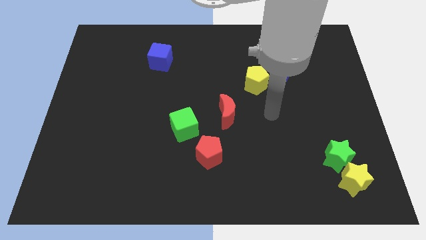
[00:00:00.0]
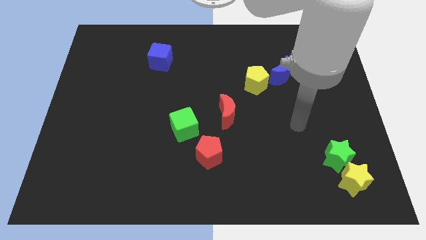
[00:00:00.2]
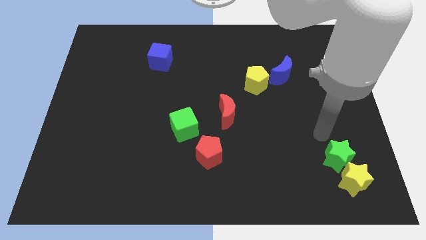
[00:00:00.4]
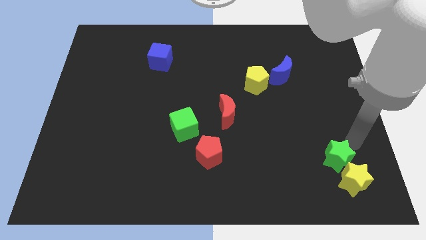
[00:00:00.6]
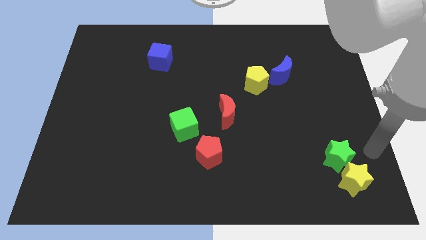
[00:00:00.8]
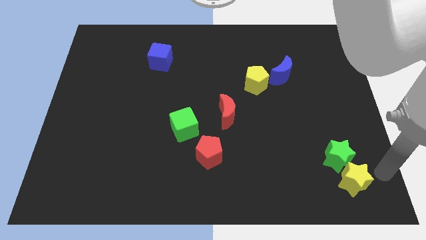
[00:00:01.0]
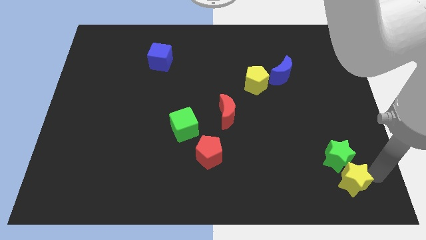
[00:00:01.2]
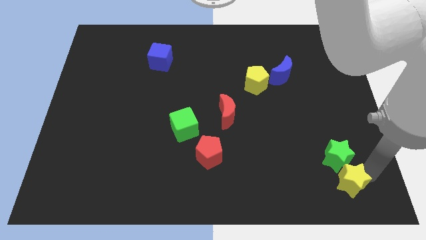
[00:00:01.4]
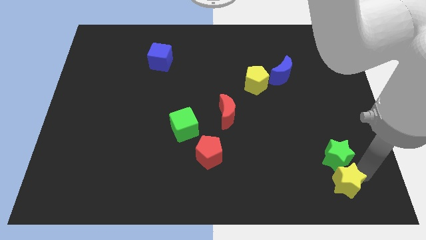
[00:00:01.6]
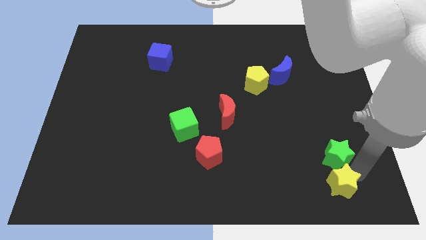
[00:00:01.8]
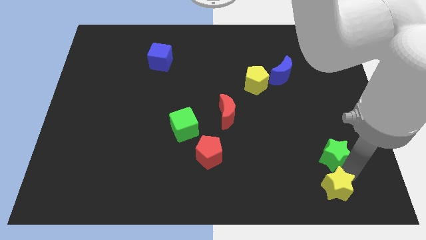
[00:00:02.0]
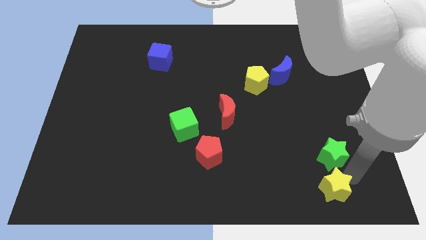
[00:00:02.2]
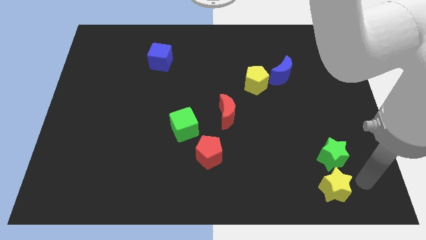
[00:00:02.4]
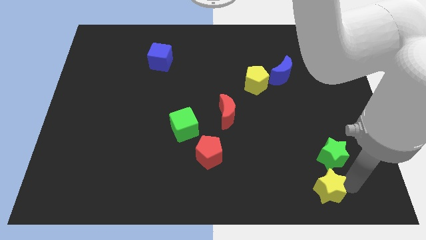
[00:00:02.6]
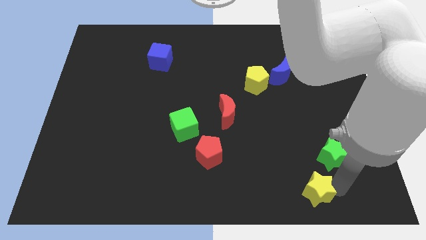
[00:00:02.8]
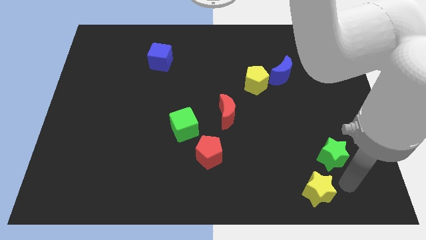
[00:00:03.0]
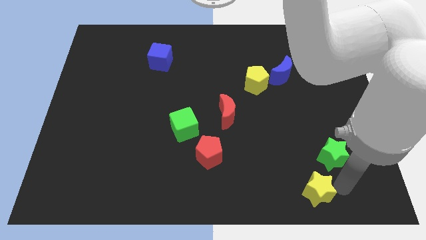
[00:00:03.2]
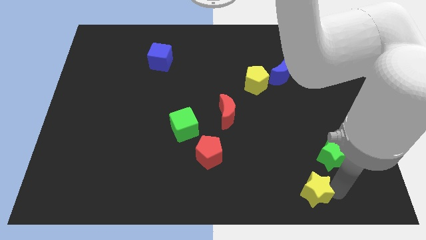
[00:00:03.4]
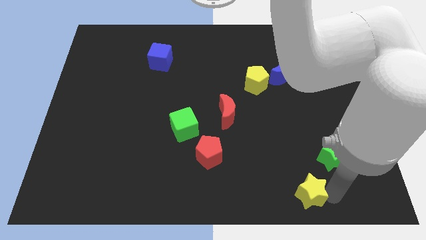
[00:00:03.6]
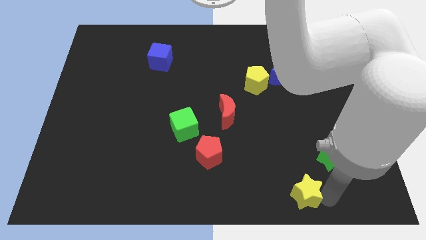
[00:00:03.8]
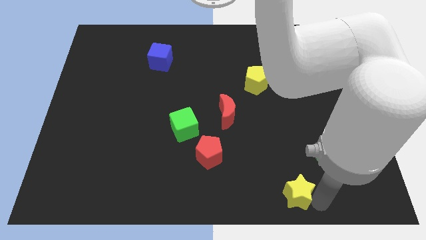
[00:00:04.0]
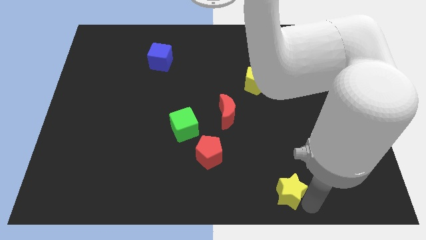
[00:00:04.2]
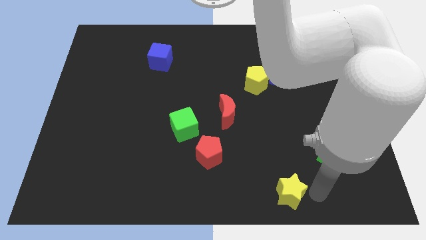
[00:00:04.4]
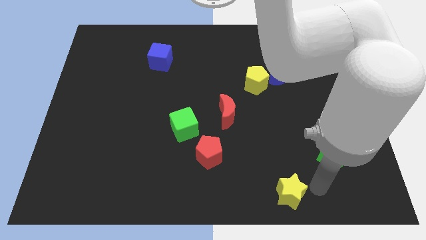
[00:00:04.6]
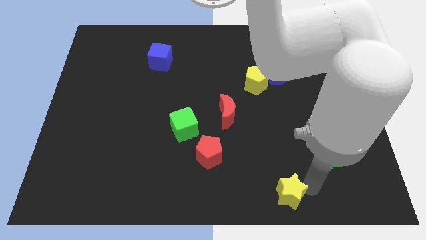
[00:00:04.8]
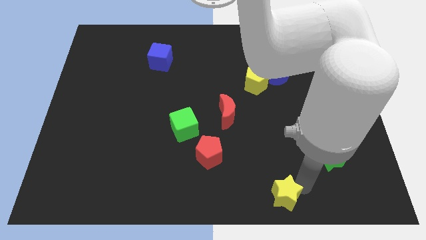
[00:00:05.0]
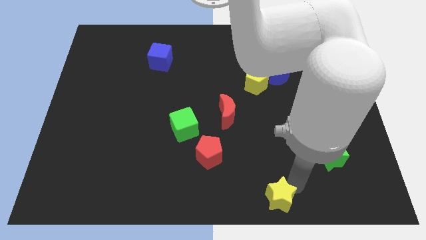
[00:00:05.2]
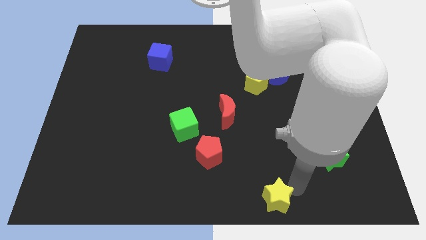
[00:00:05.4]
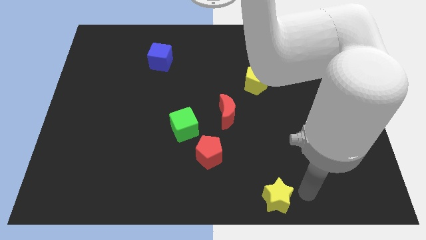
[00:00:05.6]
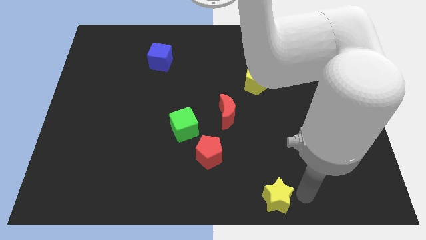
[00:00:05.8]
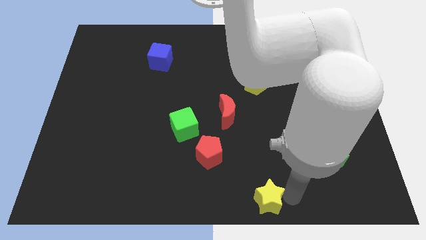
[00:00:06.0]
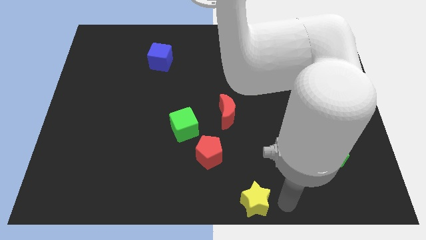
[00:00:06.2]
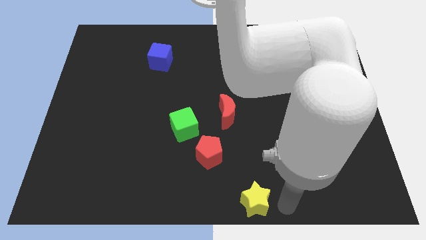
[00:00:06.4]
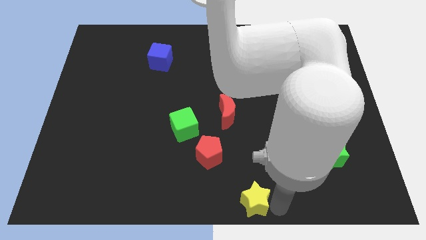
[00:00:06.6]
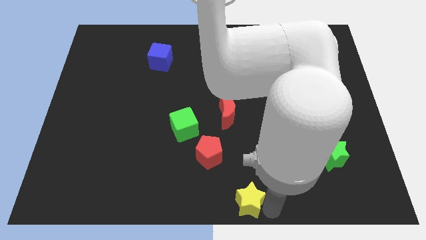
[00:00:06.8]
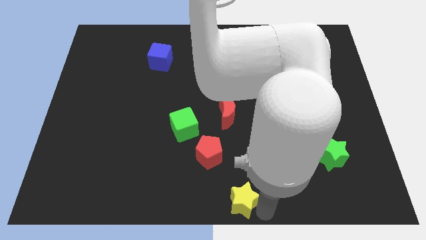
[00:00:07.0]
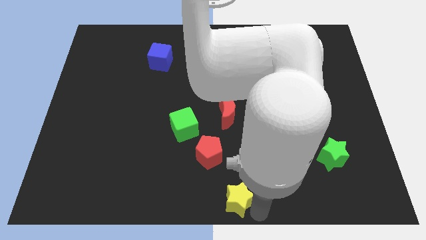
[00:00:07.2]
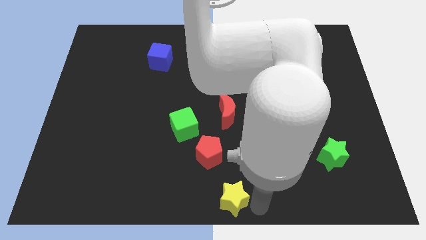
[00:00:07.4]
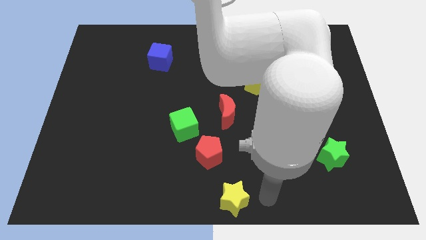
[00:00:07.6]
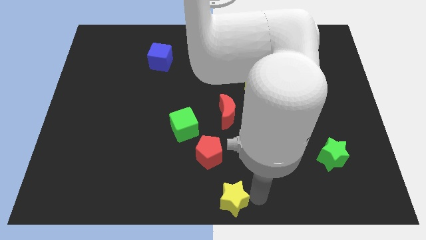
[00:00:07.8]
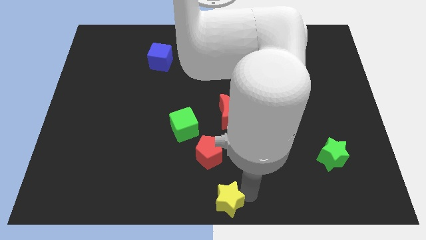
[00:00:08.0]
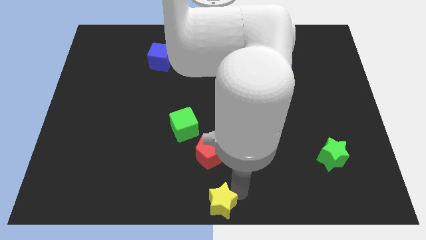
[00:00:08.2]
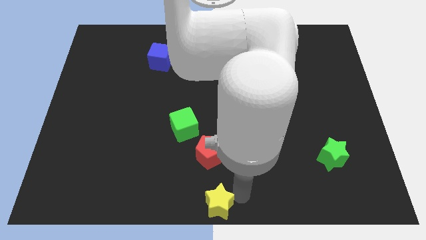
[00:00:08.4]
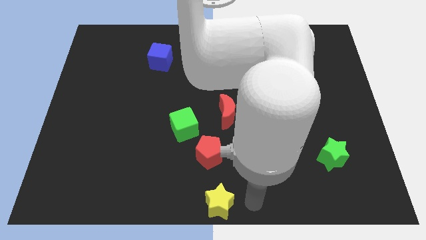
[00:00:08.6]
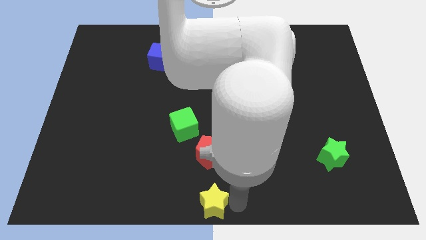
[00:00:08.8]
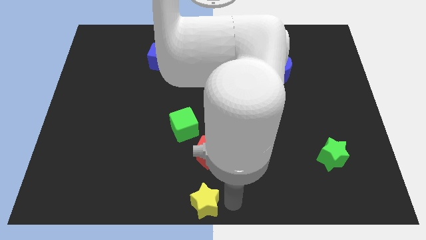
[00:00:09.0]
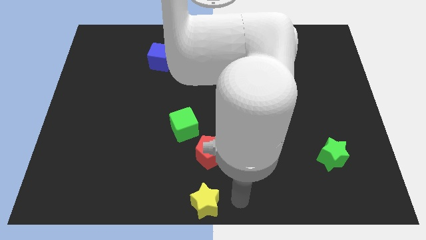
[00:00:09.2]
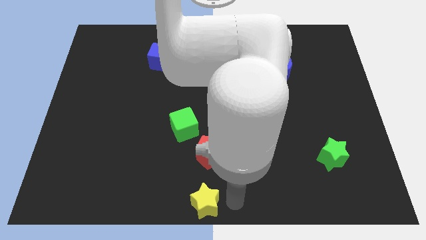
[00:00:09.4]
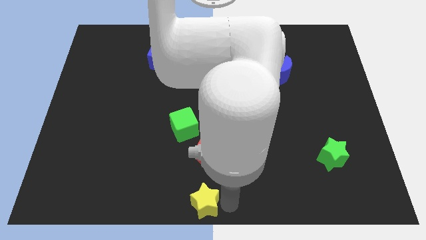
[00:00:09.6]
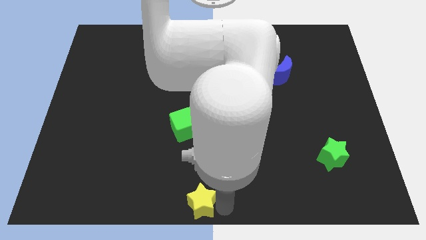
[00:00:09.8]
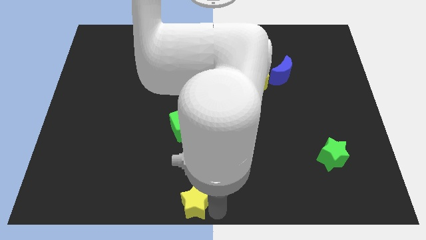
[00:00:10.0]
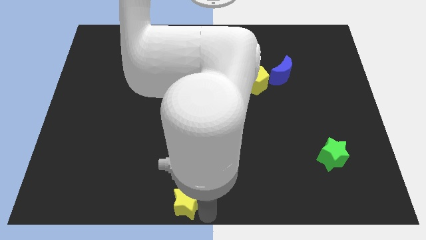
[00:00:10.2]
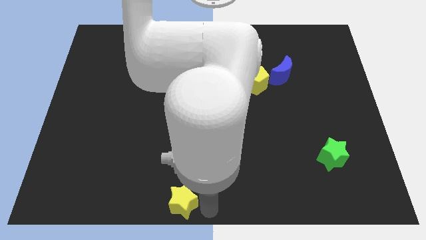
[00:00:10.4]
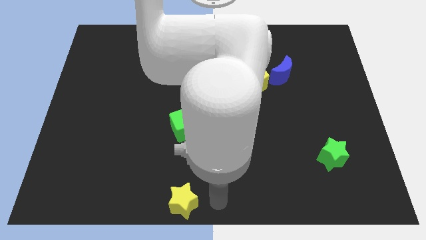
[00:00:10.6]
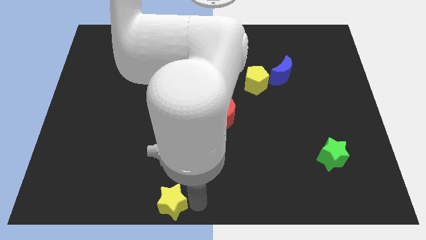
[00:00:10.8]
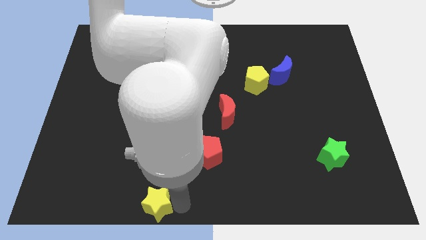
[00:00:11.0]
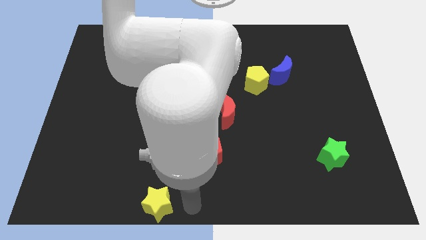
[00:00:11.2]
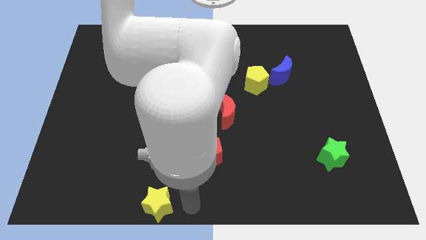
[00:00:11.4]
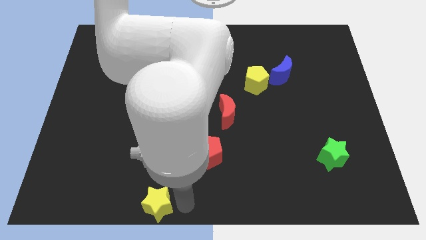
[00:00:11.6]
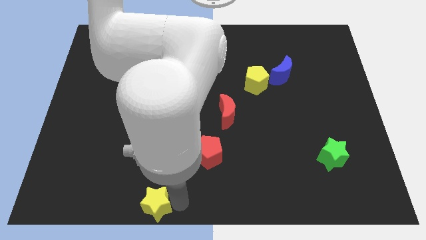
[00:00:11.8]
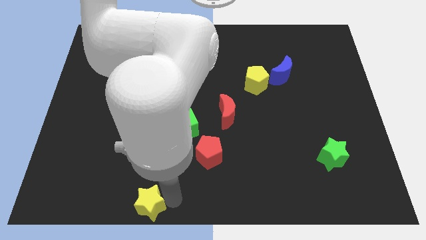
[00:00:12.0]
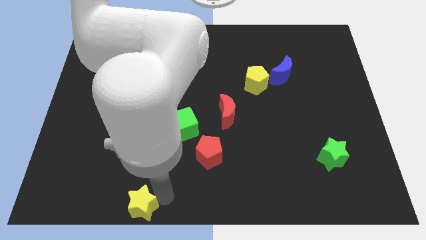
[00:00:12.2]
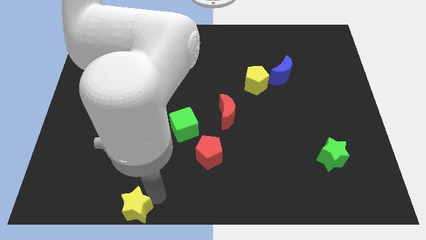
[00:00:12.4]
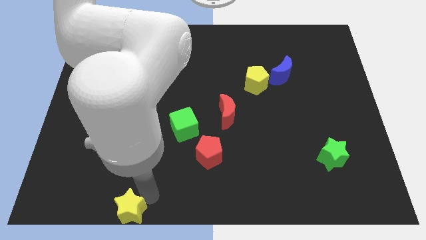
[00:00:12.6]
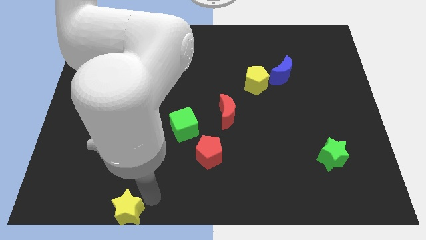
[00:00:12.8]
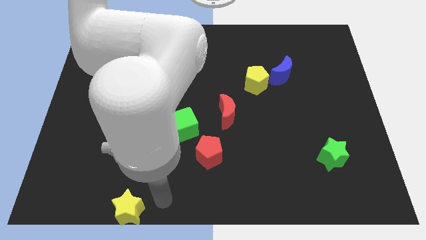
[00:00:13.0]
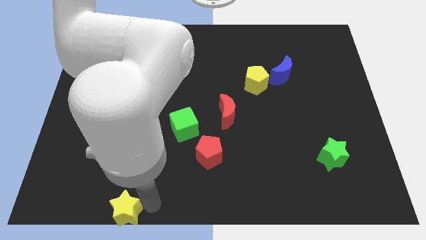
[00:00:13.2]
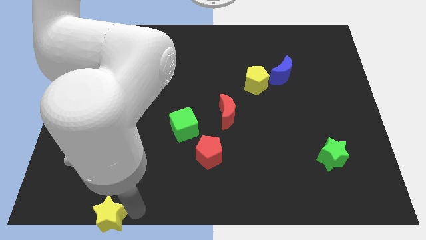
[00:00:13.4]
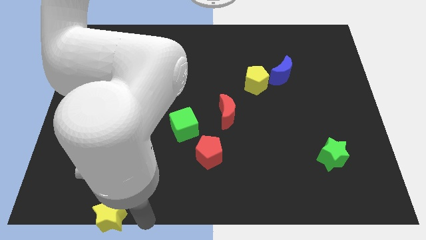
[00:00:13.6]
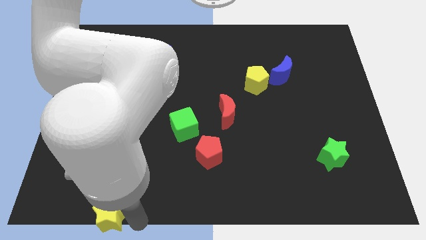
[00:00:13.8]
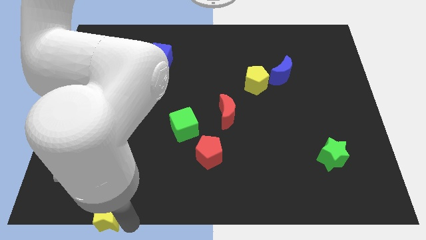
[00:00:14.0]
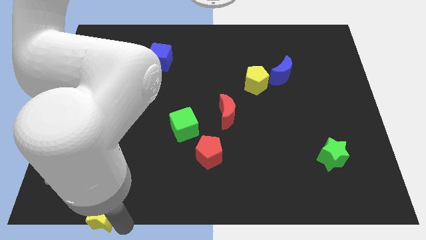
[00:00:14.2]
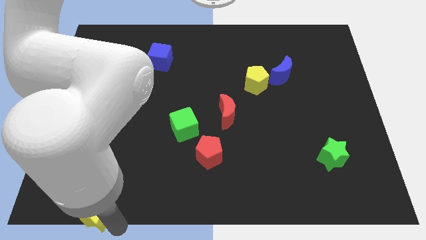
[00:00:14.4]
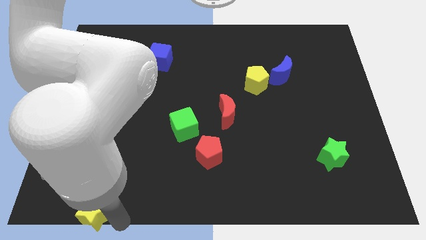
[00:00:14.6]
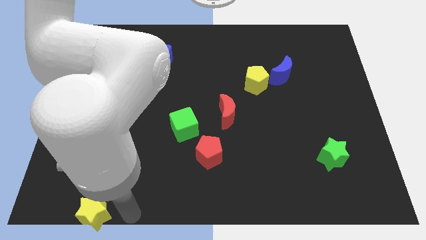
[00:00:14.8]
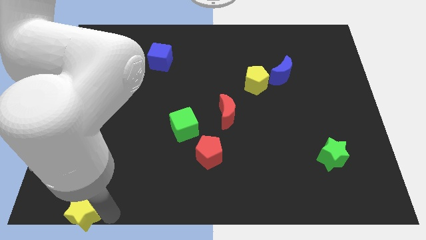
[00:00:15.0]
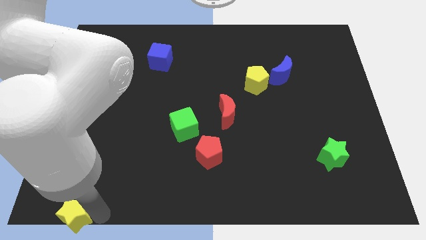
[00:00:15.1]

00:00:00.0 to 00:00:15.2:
push the yellow star to the bottom left of the board
